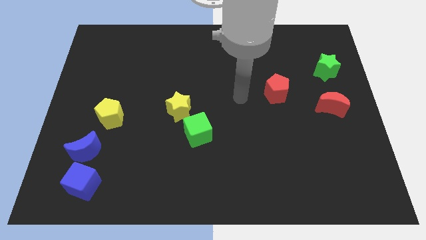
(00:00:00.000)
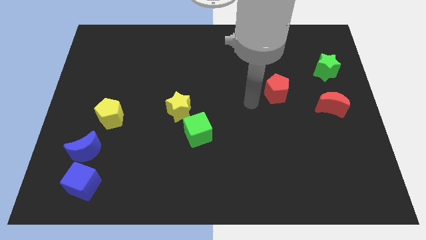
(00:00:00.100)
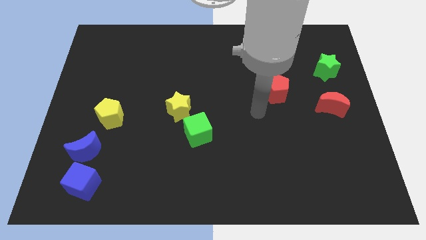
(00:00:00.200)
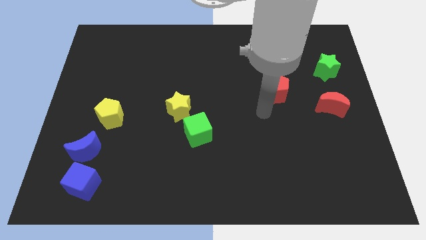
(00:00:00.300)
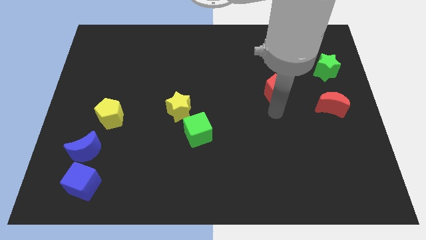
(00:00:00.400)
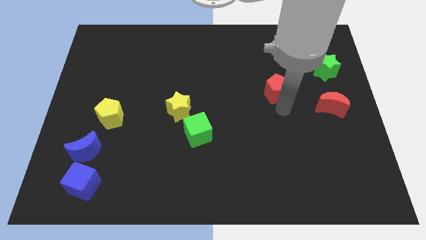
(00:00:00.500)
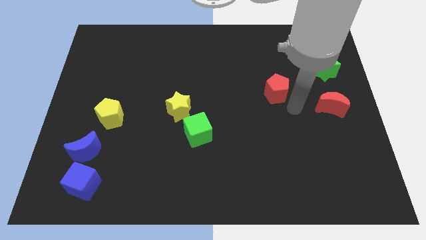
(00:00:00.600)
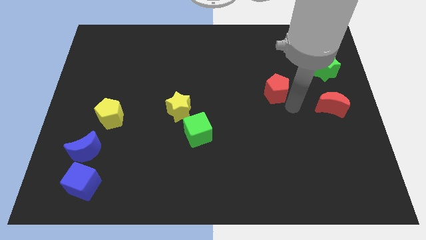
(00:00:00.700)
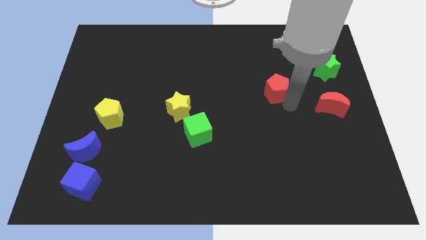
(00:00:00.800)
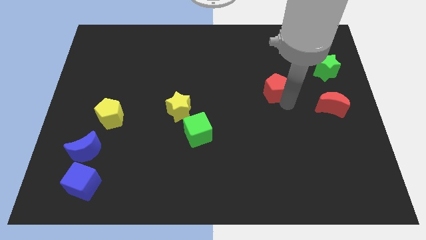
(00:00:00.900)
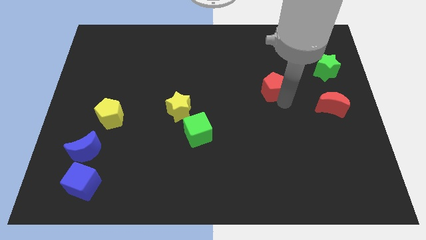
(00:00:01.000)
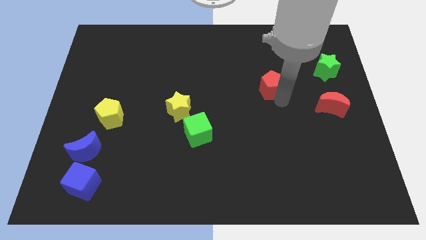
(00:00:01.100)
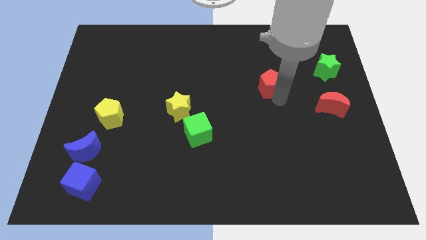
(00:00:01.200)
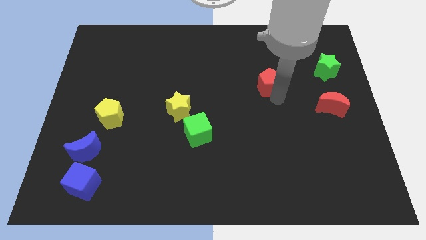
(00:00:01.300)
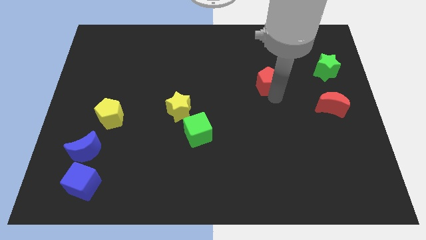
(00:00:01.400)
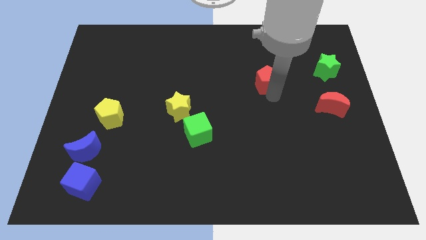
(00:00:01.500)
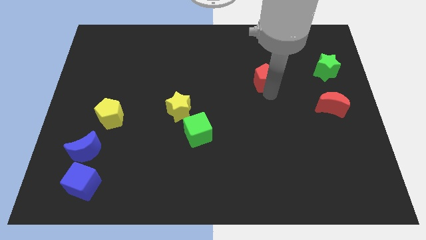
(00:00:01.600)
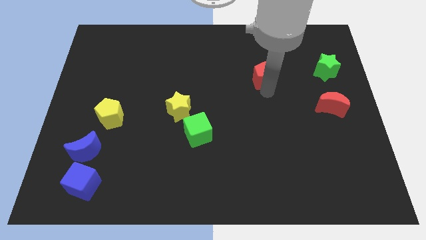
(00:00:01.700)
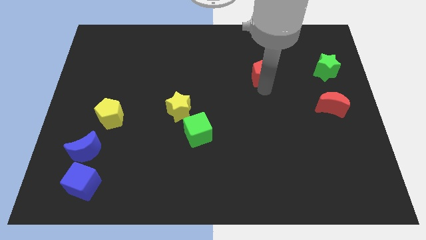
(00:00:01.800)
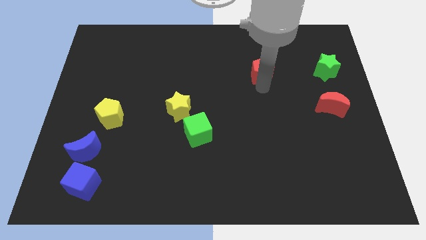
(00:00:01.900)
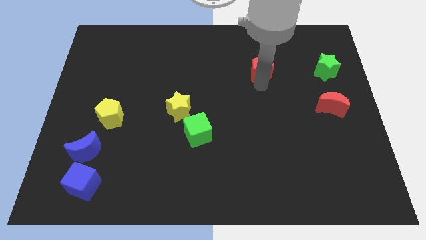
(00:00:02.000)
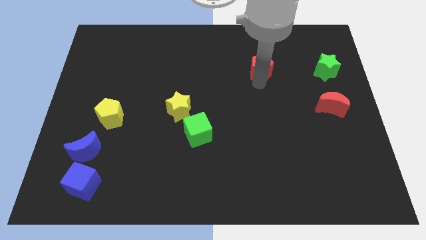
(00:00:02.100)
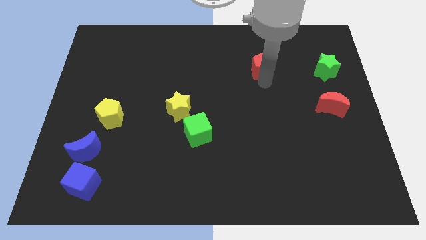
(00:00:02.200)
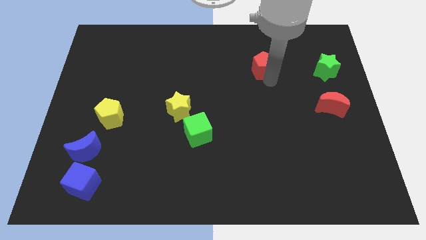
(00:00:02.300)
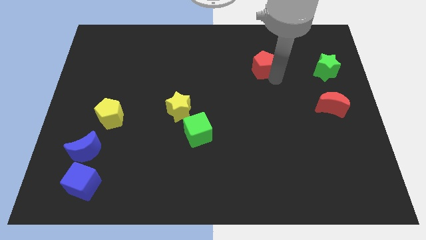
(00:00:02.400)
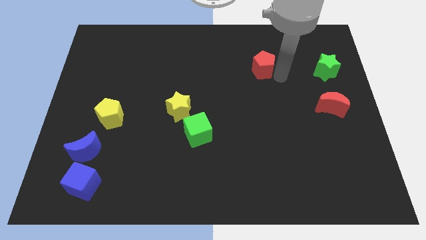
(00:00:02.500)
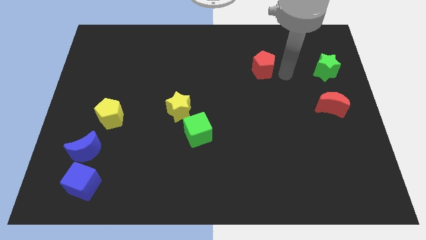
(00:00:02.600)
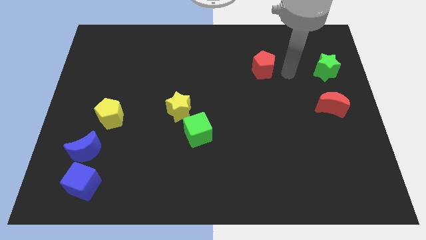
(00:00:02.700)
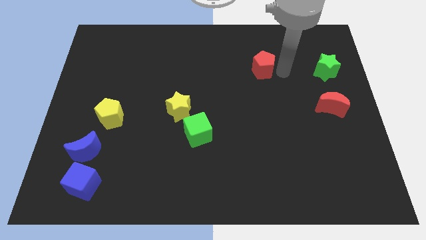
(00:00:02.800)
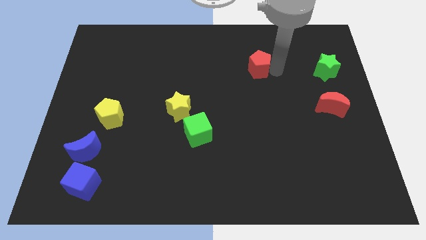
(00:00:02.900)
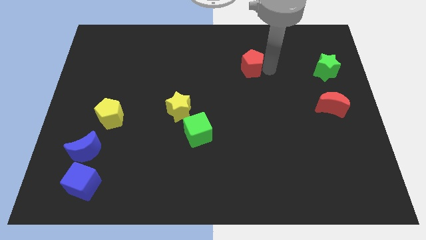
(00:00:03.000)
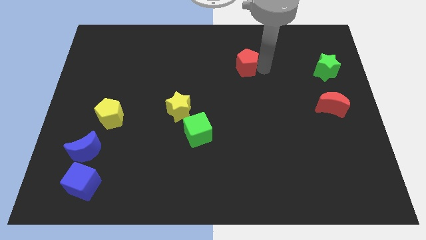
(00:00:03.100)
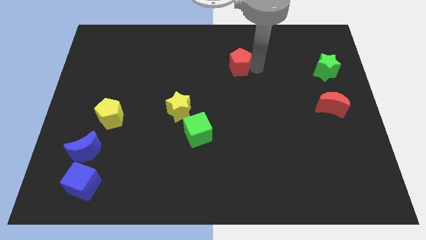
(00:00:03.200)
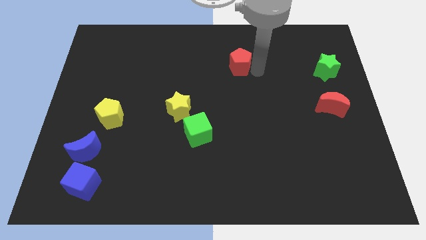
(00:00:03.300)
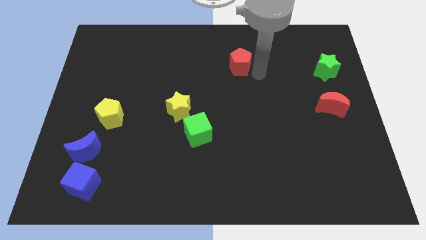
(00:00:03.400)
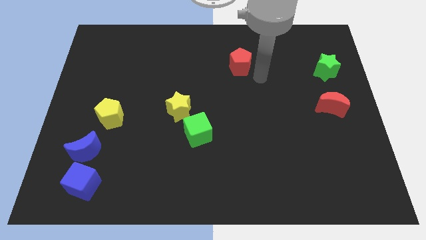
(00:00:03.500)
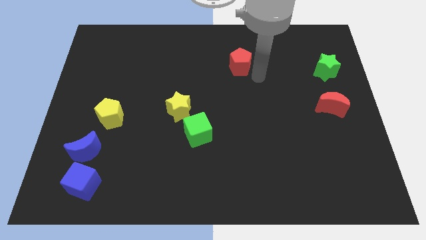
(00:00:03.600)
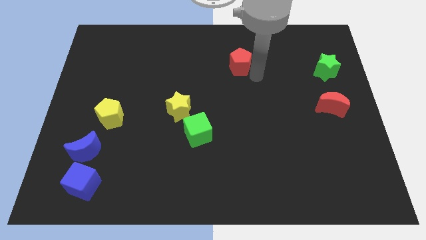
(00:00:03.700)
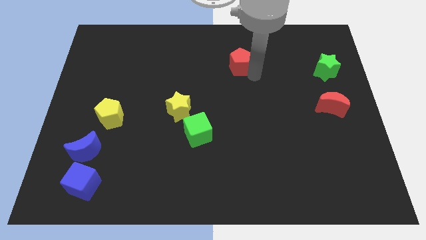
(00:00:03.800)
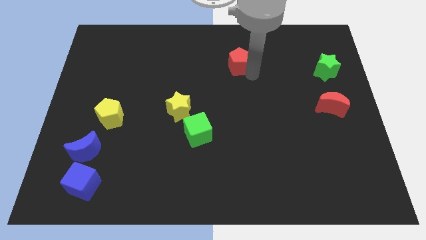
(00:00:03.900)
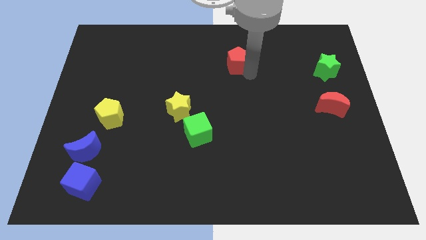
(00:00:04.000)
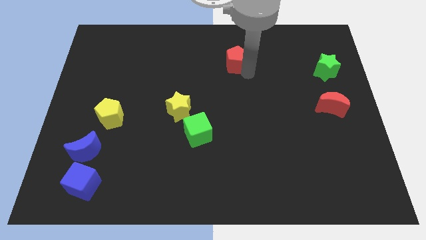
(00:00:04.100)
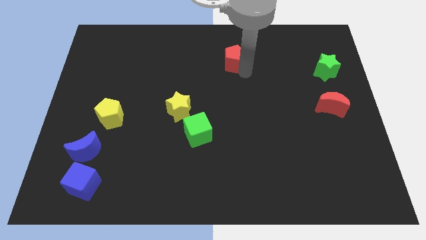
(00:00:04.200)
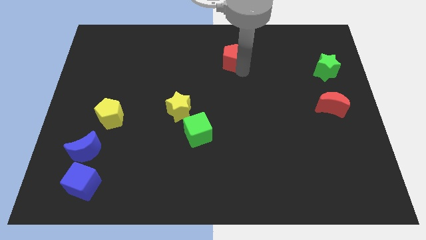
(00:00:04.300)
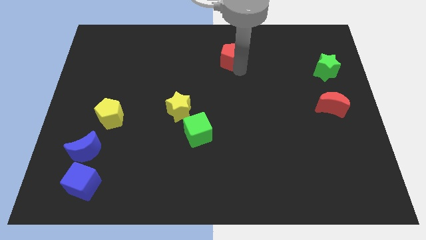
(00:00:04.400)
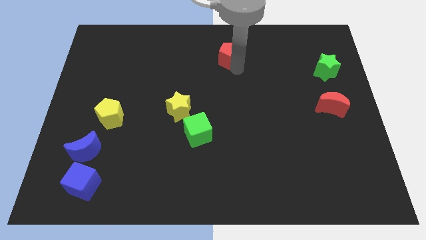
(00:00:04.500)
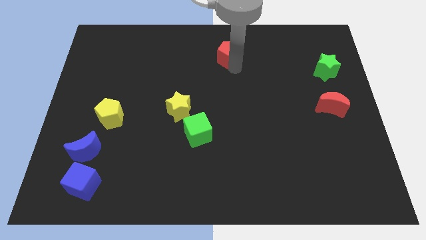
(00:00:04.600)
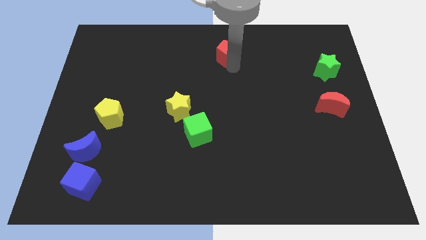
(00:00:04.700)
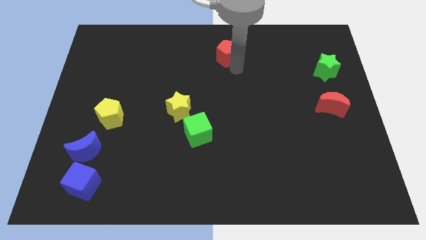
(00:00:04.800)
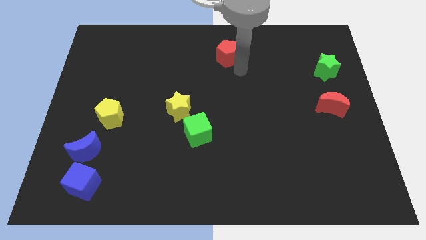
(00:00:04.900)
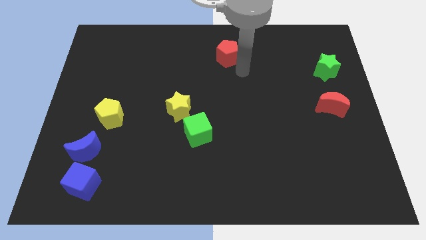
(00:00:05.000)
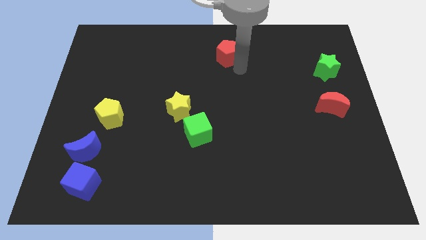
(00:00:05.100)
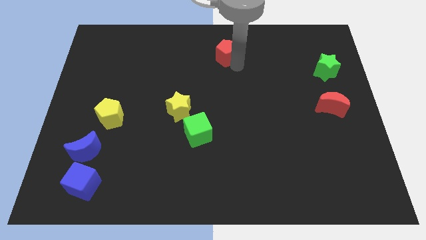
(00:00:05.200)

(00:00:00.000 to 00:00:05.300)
move the red pentagon to the top side

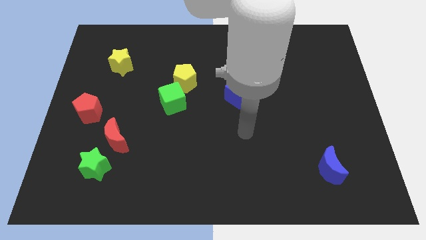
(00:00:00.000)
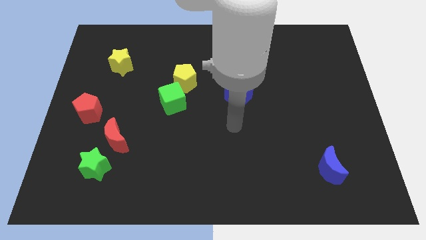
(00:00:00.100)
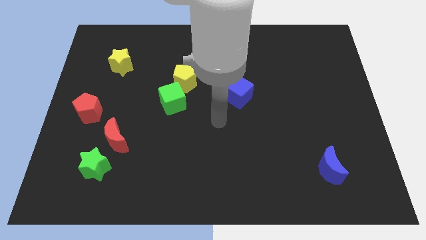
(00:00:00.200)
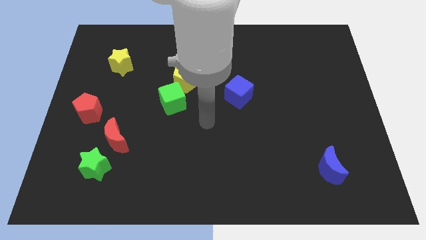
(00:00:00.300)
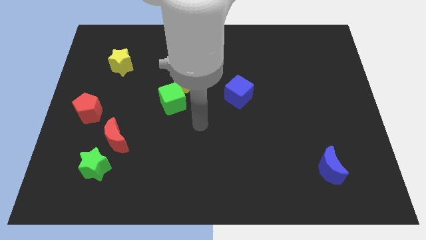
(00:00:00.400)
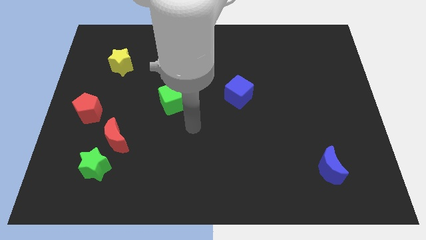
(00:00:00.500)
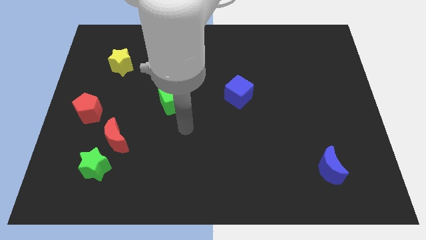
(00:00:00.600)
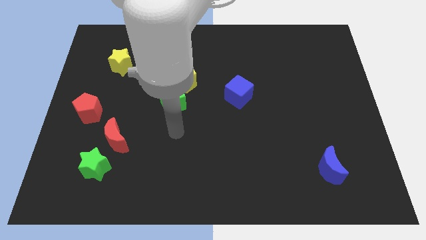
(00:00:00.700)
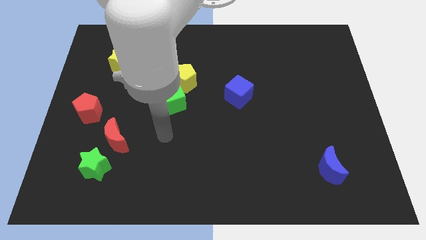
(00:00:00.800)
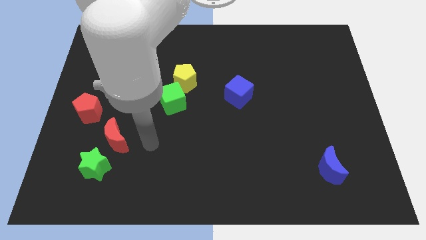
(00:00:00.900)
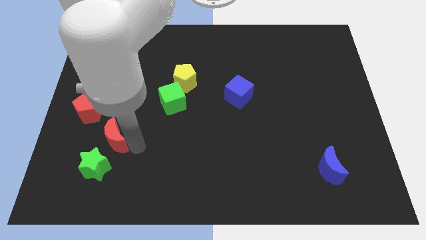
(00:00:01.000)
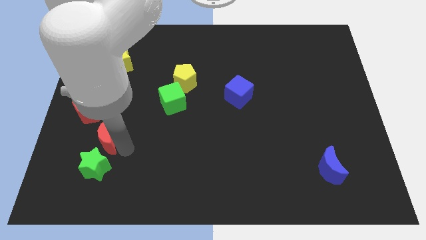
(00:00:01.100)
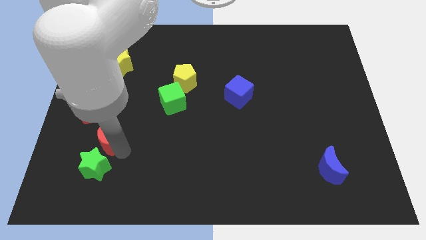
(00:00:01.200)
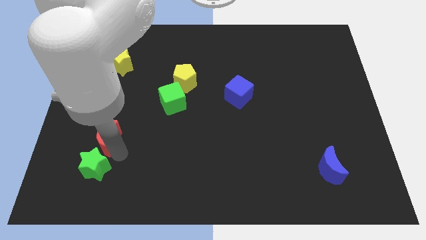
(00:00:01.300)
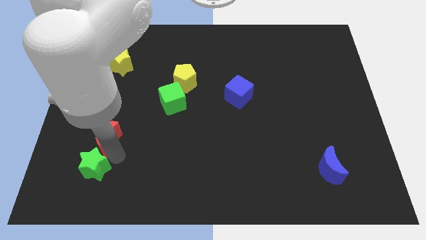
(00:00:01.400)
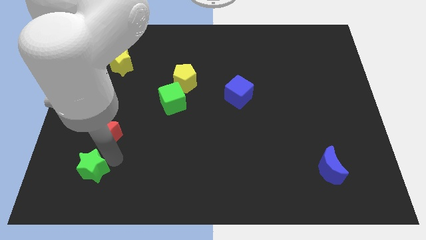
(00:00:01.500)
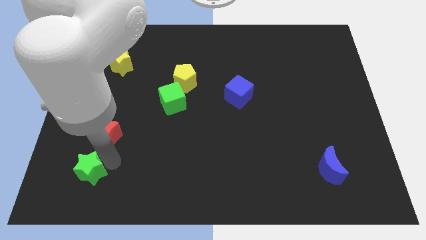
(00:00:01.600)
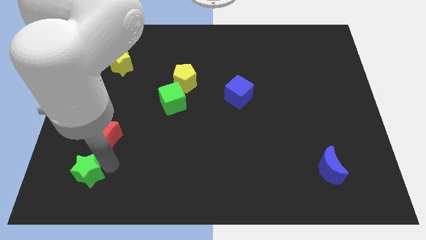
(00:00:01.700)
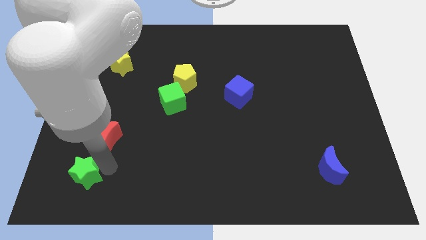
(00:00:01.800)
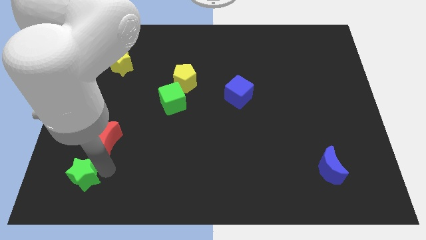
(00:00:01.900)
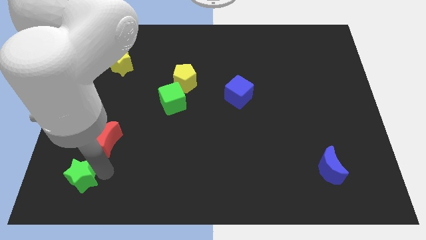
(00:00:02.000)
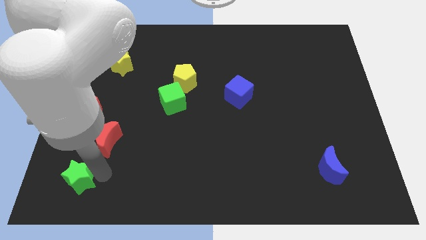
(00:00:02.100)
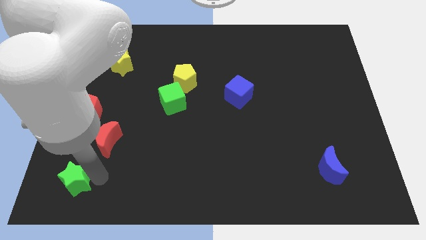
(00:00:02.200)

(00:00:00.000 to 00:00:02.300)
slide the green star to the bottom left corner
